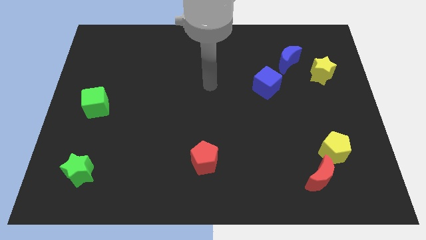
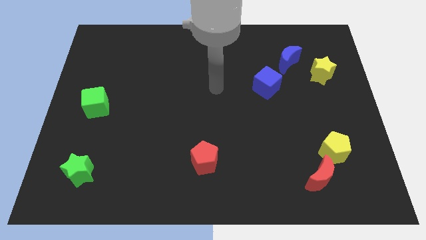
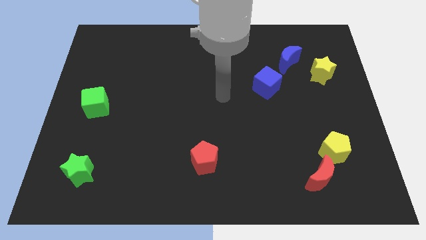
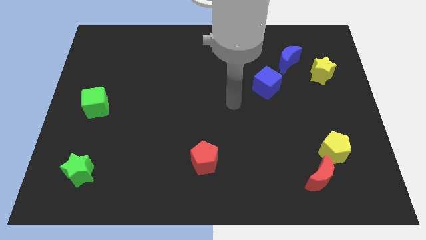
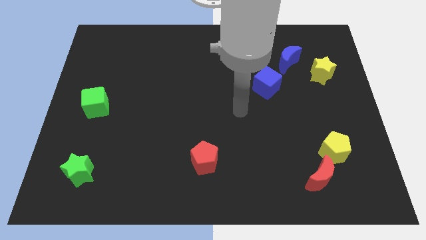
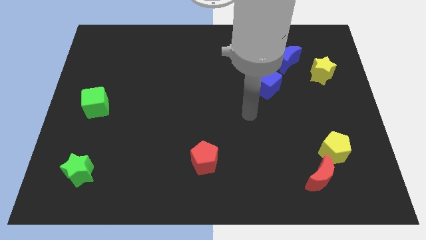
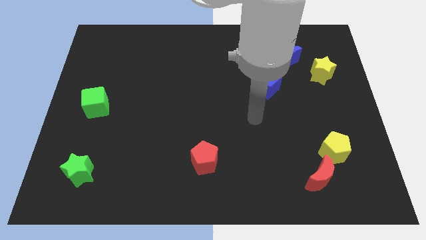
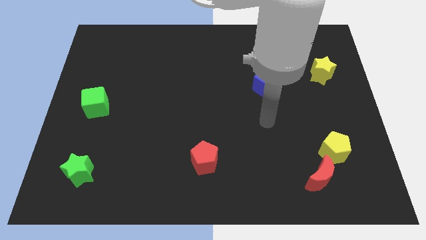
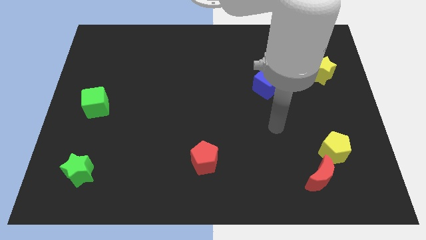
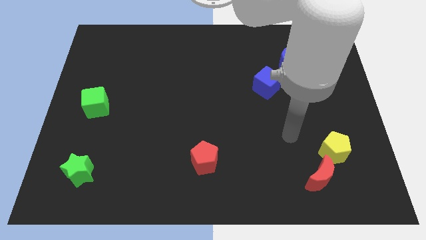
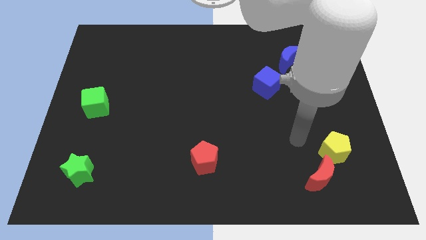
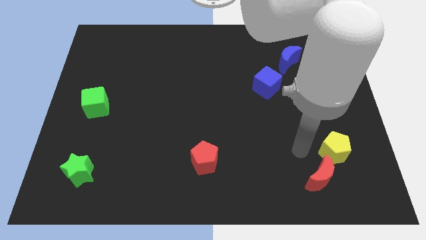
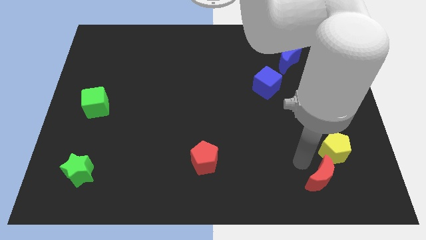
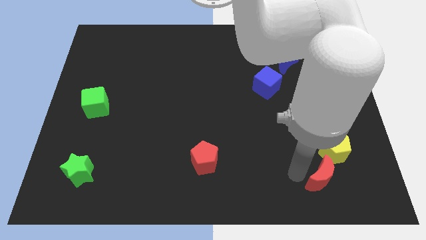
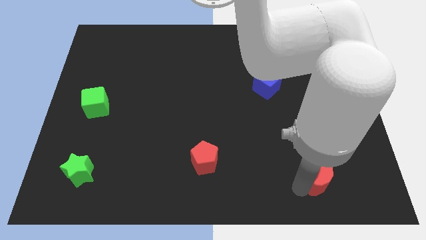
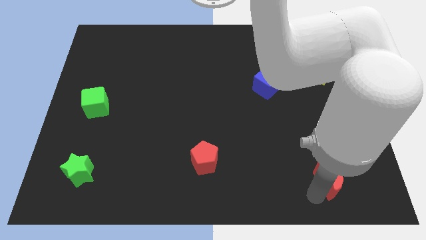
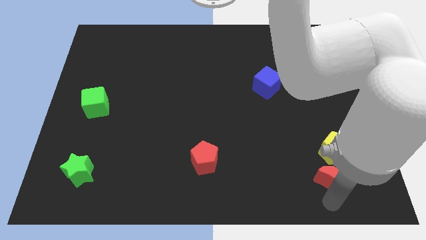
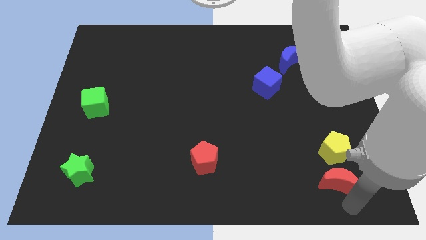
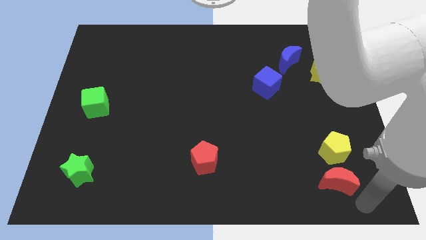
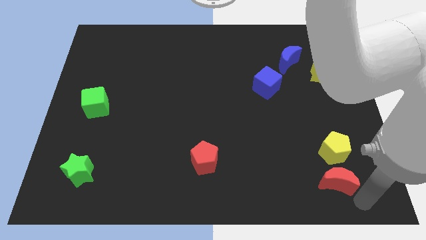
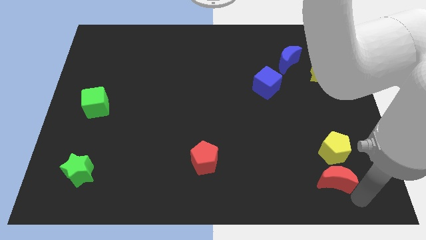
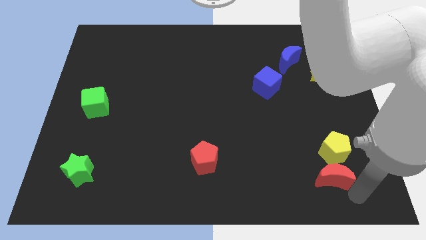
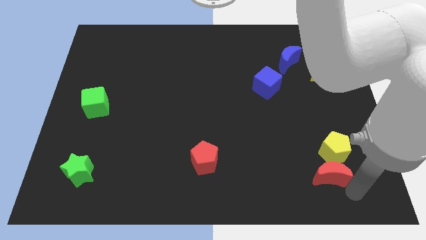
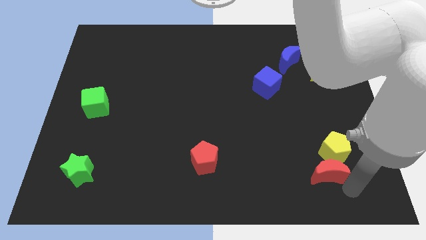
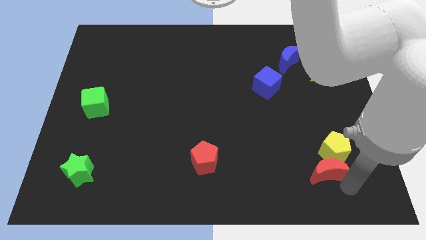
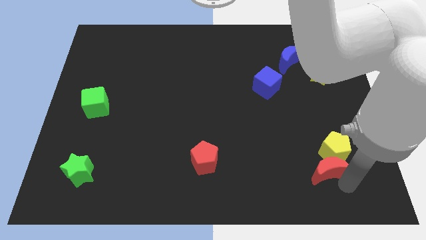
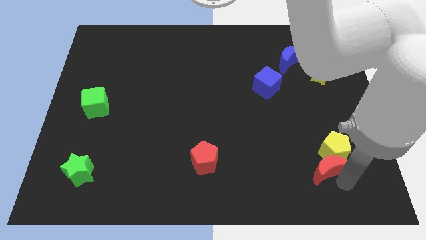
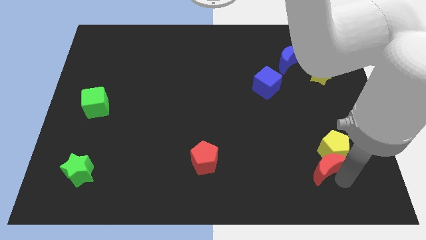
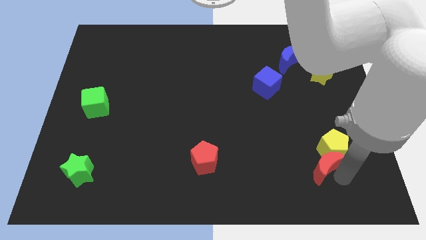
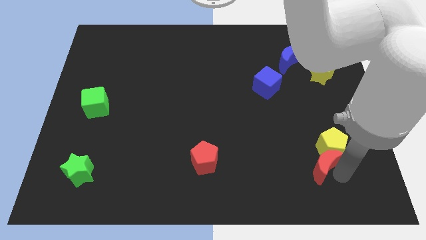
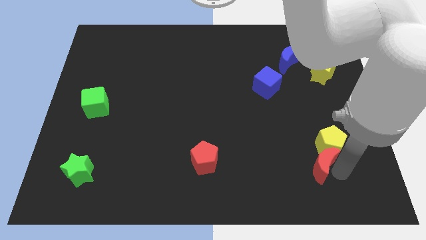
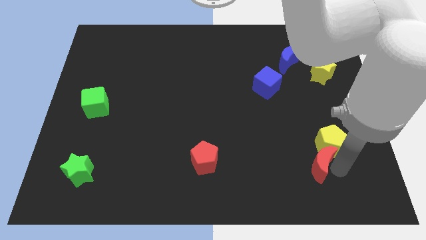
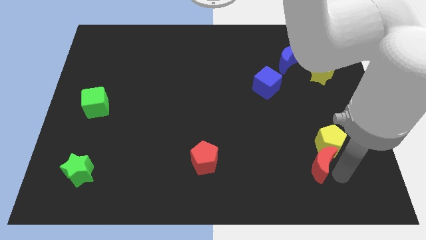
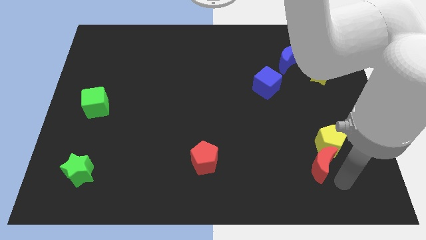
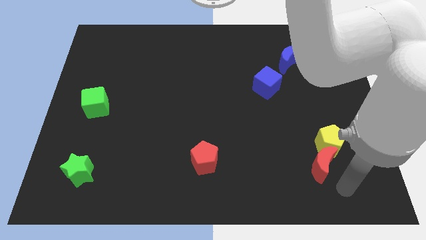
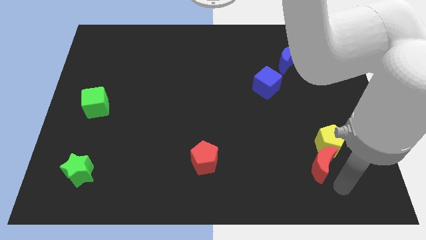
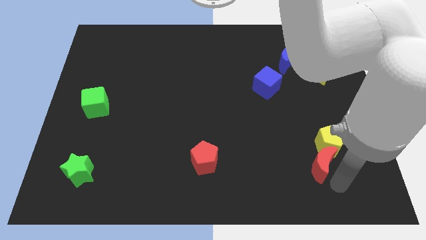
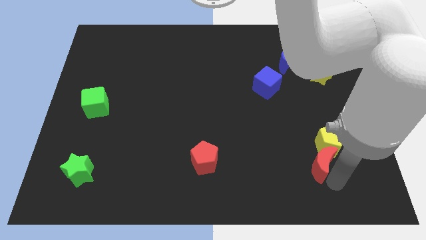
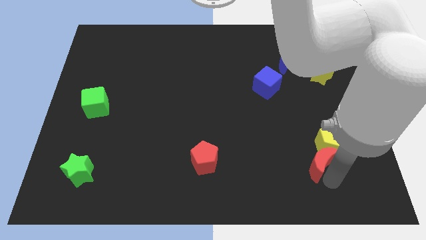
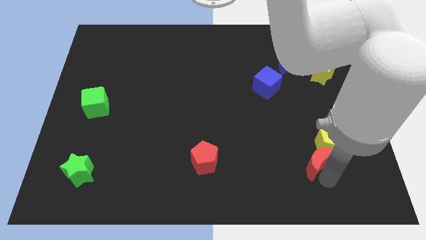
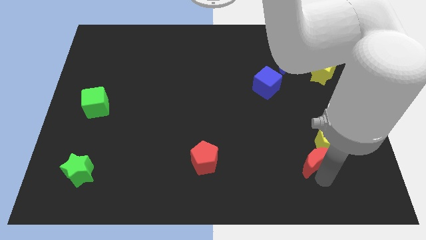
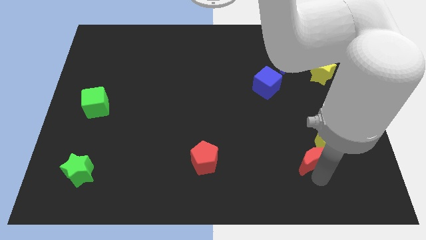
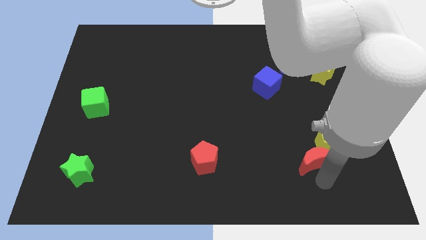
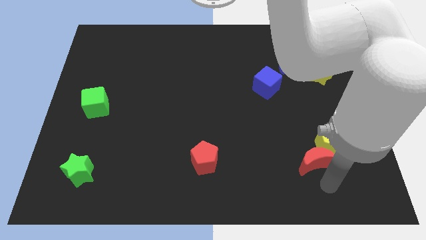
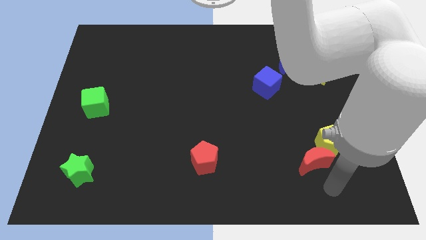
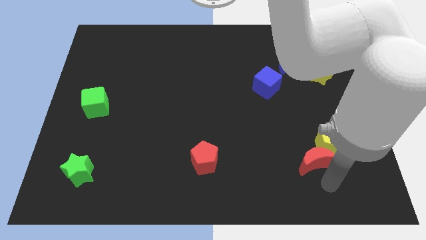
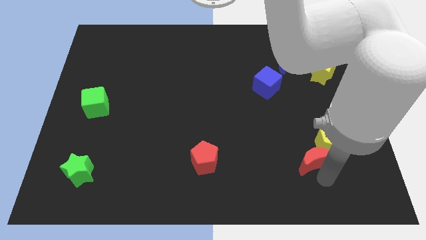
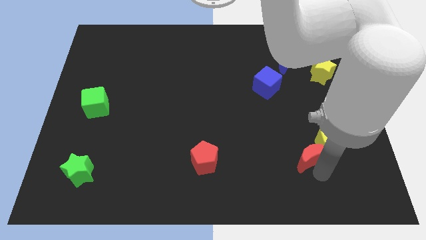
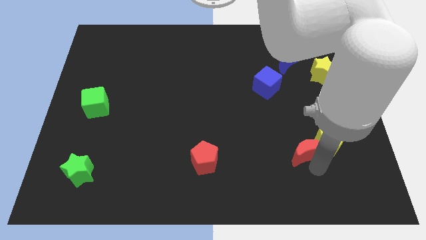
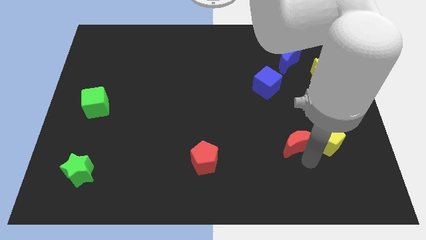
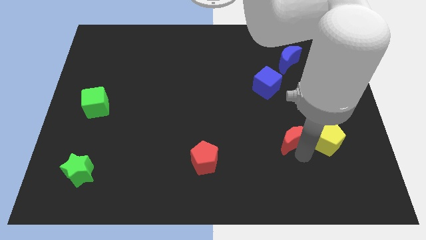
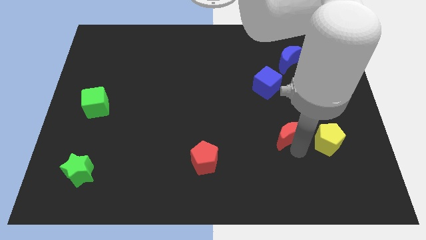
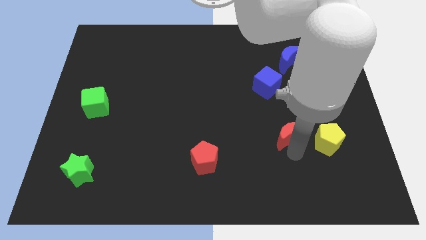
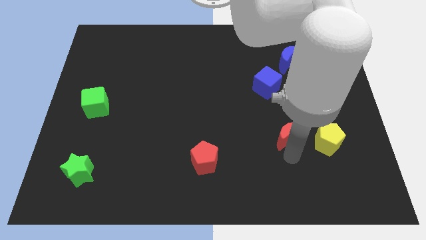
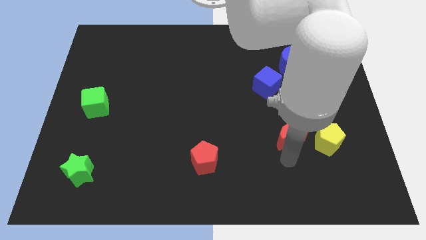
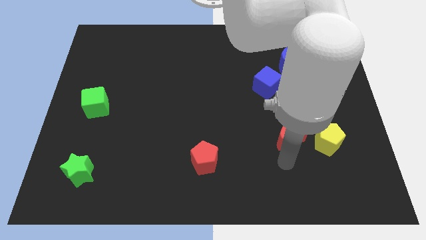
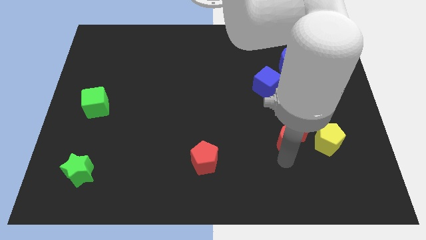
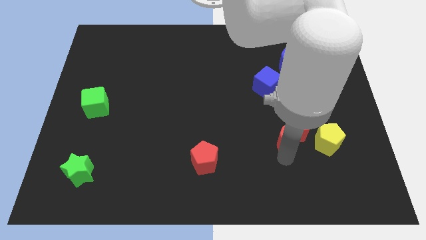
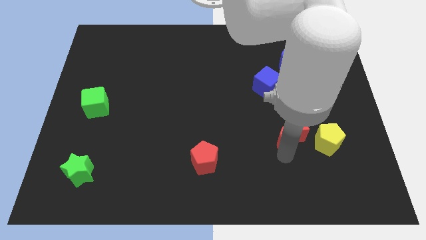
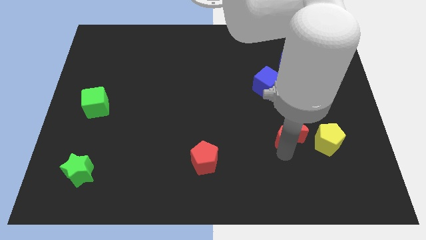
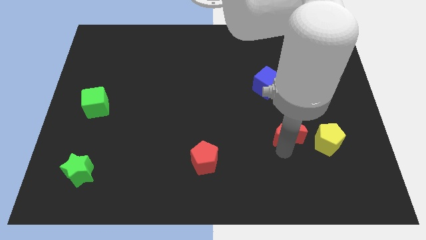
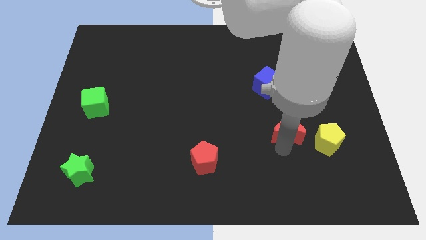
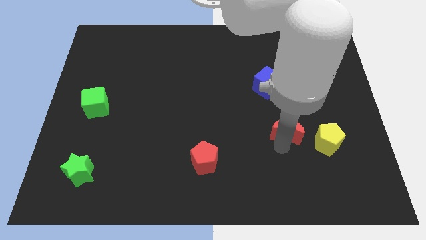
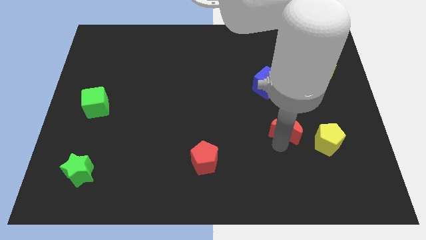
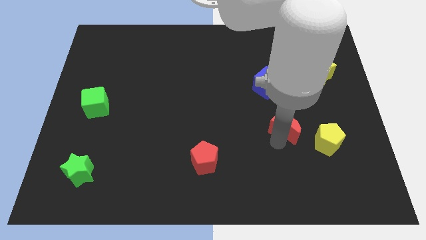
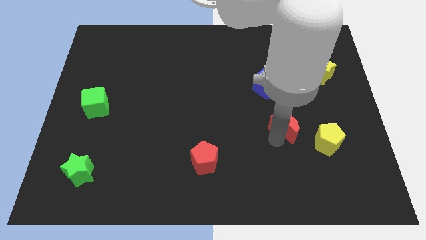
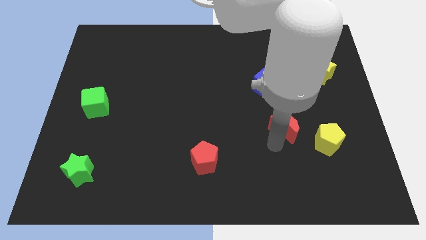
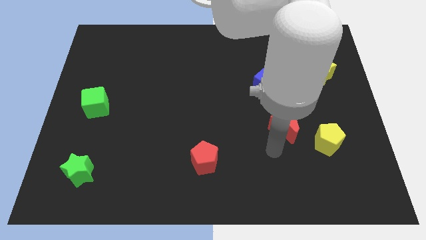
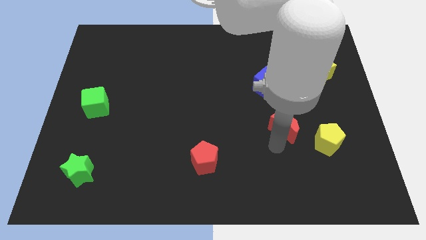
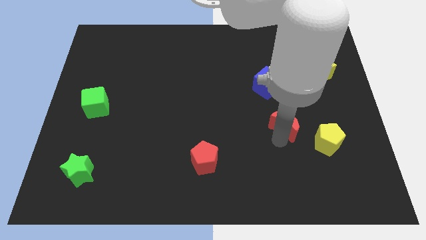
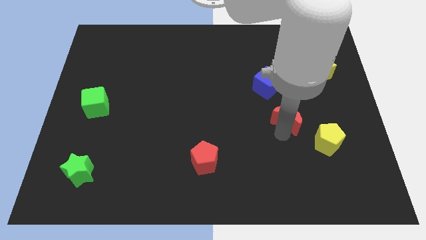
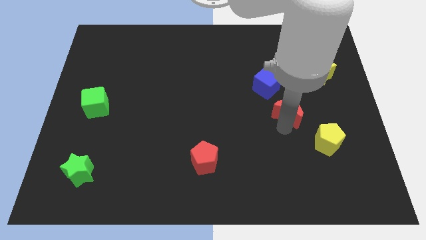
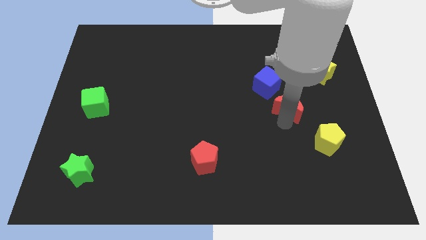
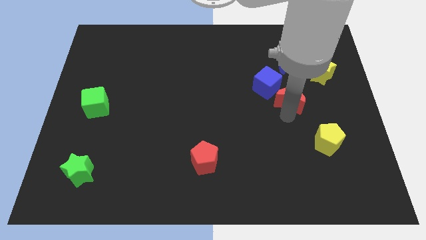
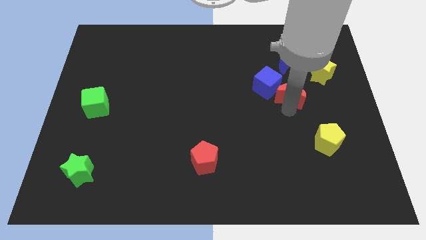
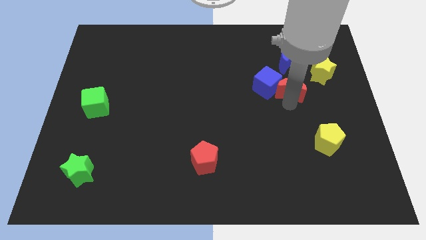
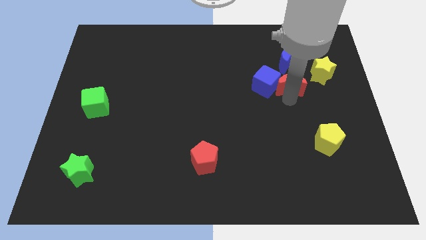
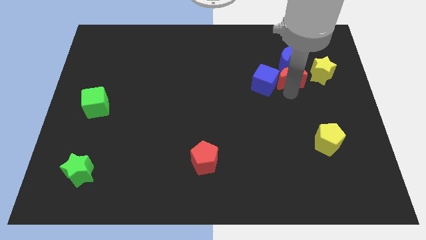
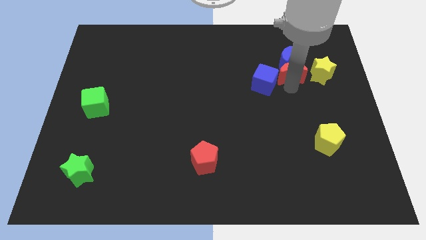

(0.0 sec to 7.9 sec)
slide the red moon next to the blue moon
